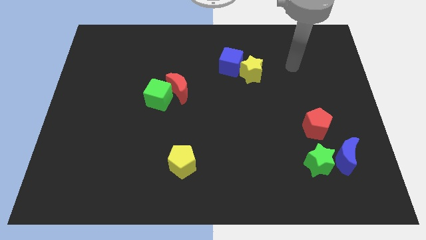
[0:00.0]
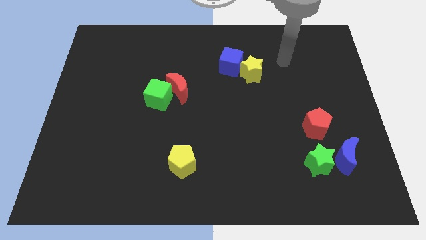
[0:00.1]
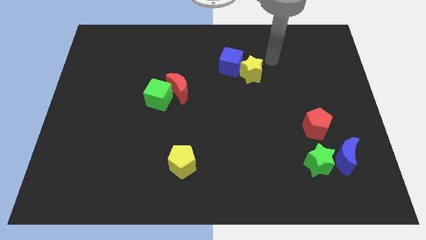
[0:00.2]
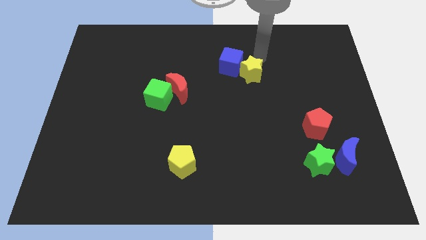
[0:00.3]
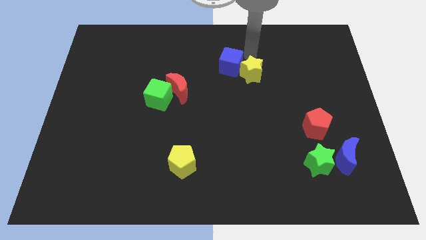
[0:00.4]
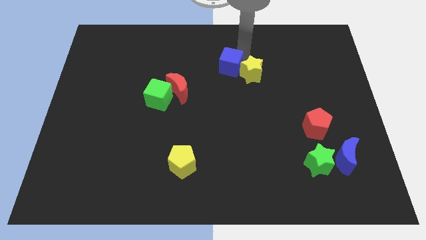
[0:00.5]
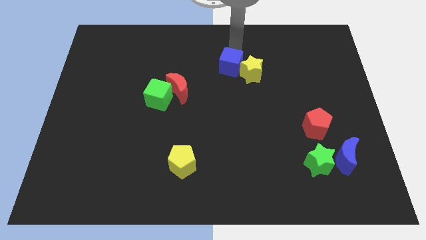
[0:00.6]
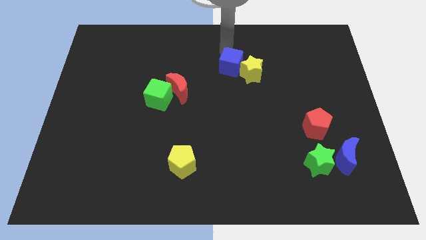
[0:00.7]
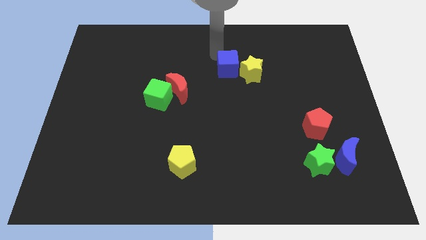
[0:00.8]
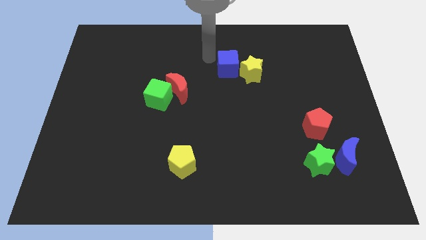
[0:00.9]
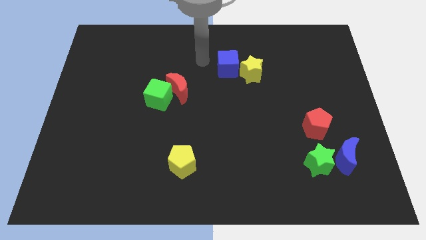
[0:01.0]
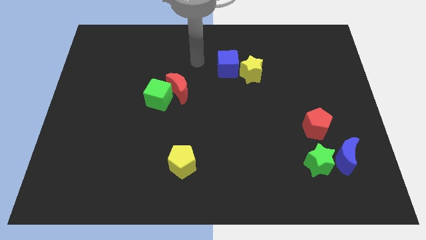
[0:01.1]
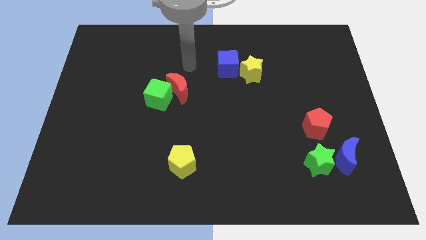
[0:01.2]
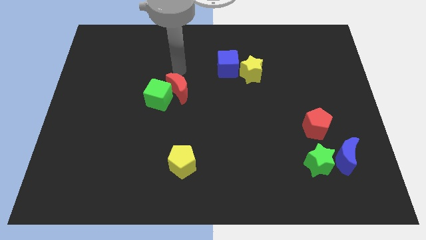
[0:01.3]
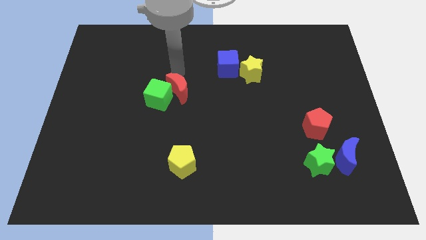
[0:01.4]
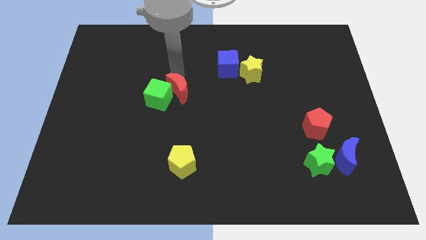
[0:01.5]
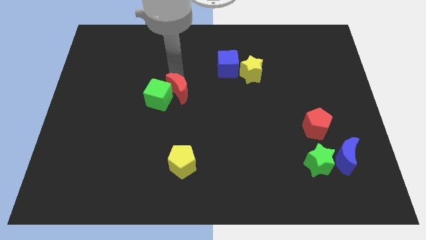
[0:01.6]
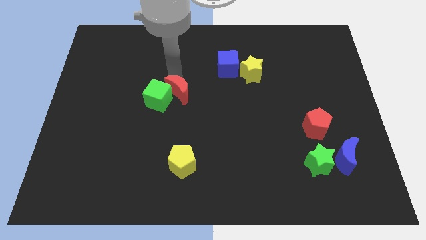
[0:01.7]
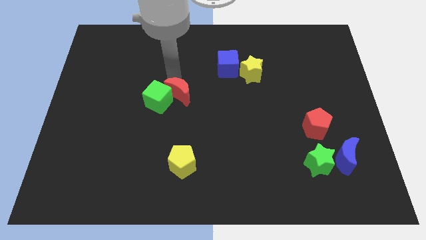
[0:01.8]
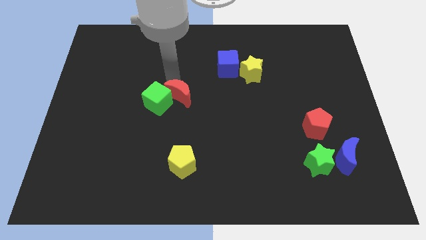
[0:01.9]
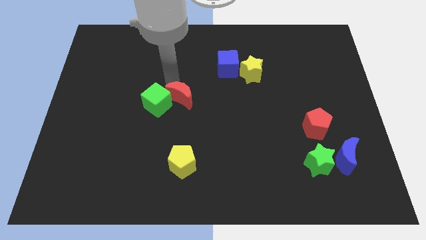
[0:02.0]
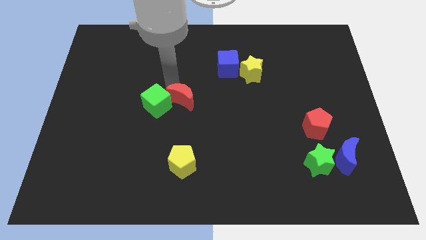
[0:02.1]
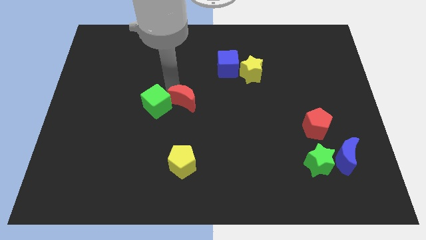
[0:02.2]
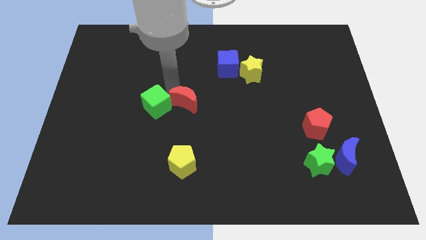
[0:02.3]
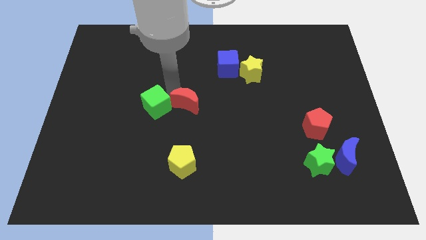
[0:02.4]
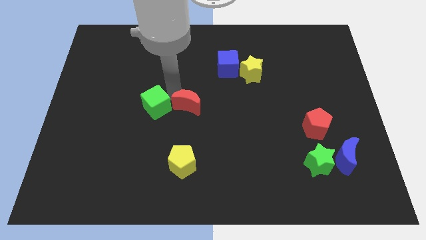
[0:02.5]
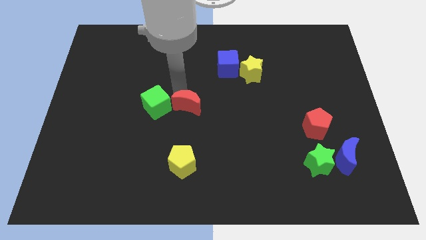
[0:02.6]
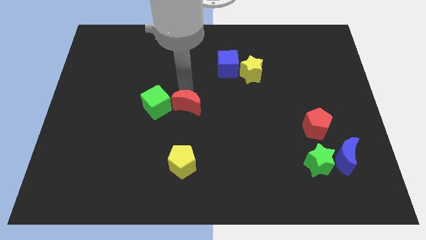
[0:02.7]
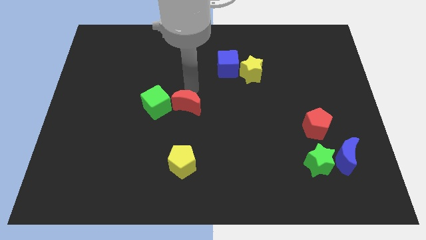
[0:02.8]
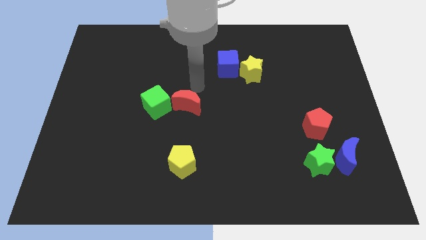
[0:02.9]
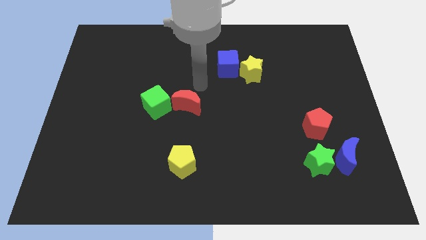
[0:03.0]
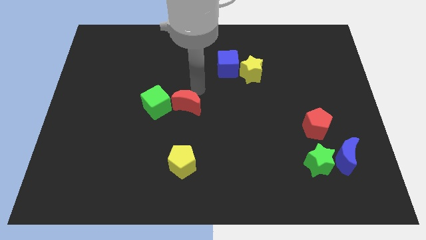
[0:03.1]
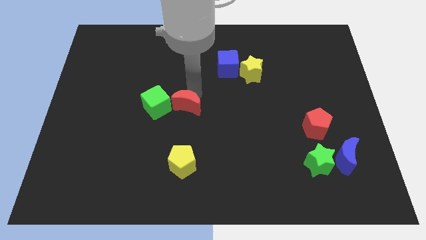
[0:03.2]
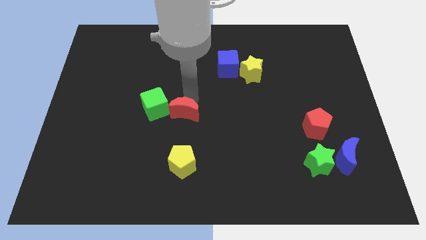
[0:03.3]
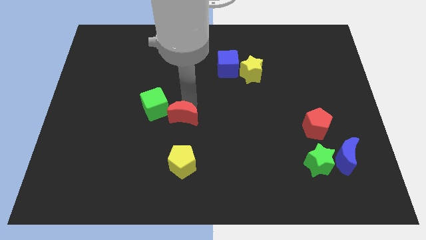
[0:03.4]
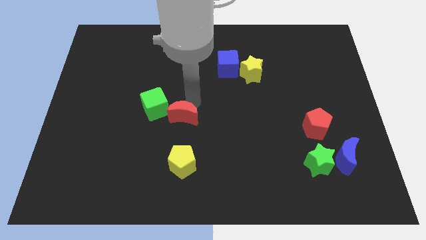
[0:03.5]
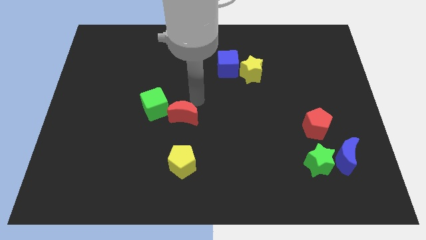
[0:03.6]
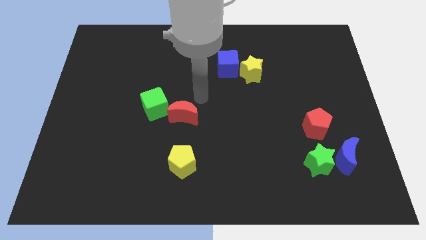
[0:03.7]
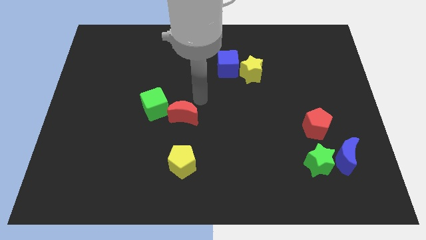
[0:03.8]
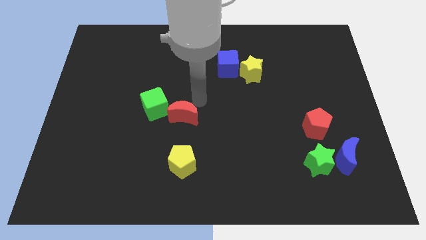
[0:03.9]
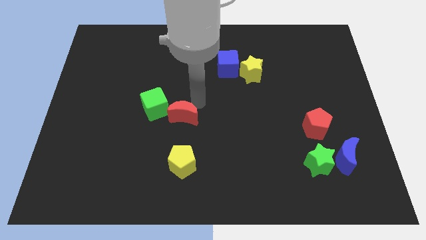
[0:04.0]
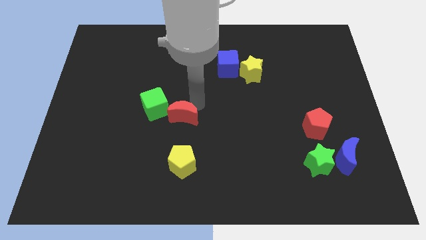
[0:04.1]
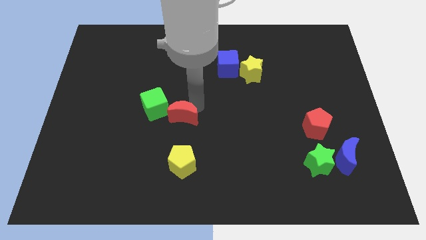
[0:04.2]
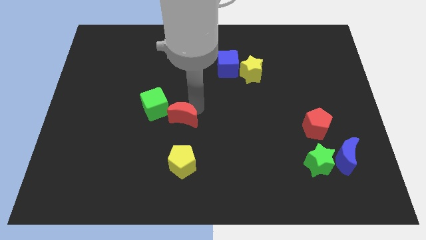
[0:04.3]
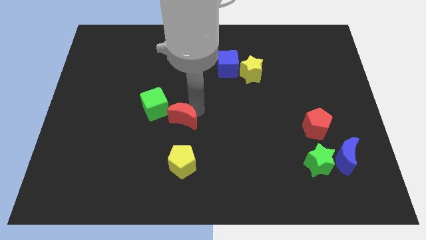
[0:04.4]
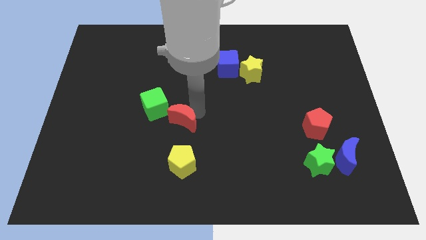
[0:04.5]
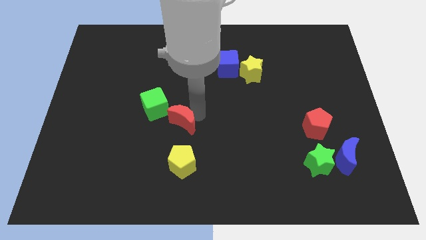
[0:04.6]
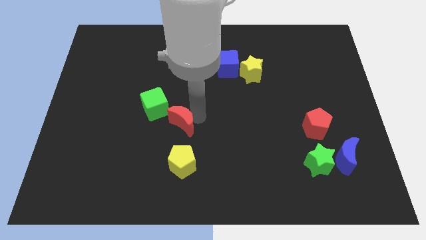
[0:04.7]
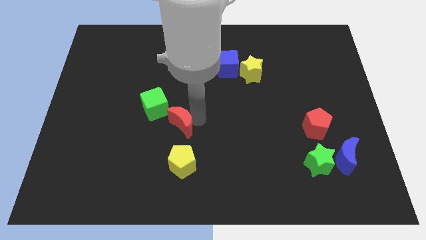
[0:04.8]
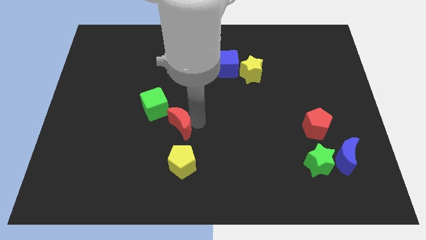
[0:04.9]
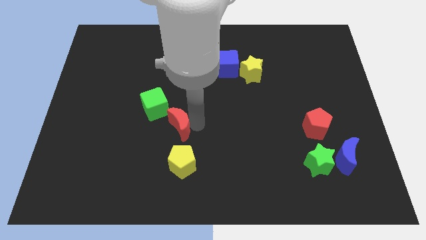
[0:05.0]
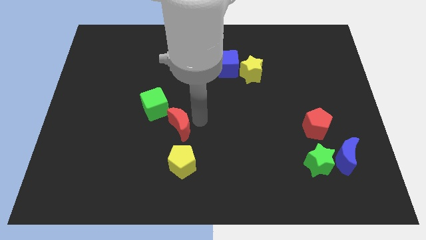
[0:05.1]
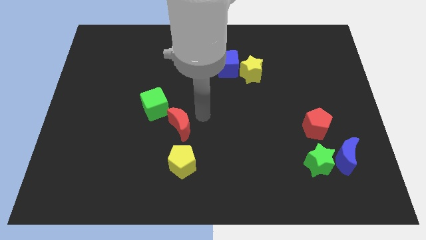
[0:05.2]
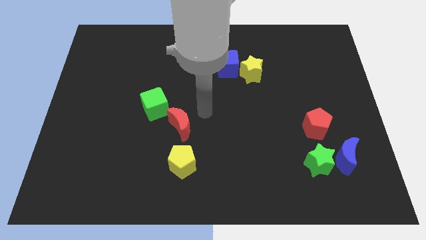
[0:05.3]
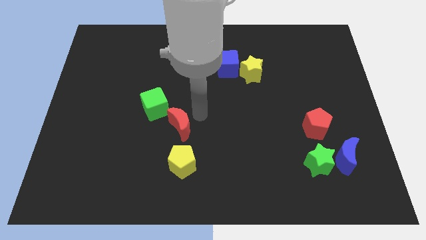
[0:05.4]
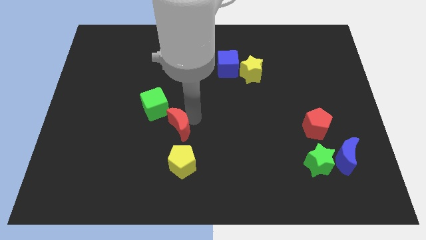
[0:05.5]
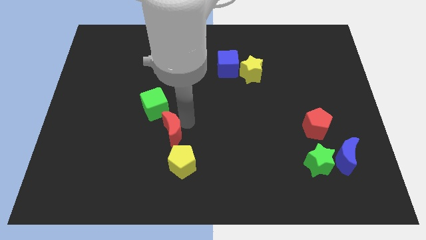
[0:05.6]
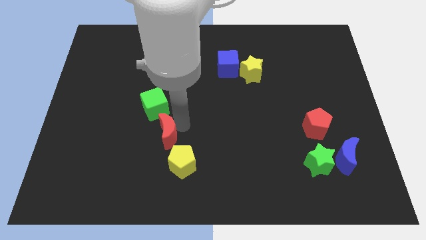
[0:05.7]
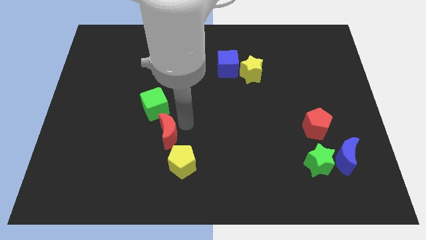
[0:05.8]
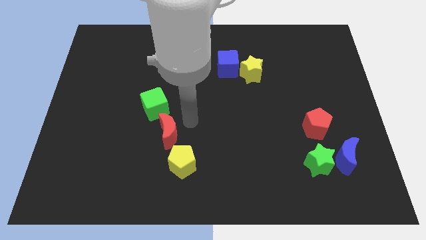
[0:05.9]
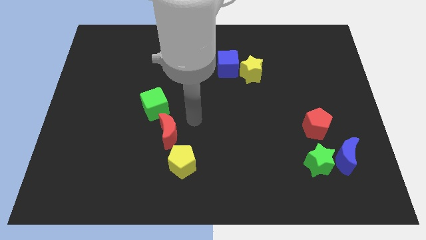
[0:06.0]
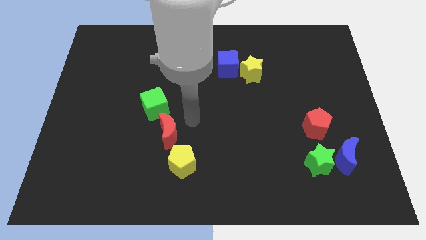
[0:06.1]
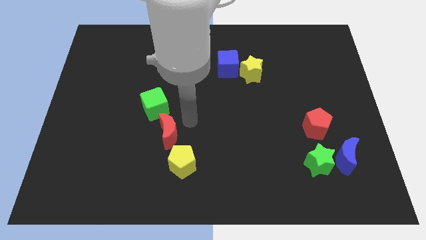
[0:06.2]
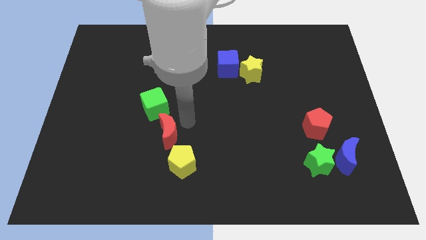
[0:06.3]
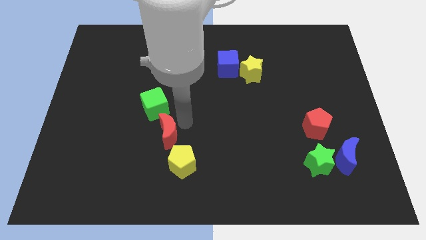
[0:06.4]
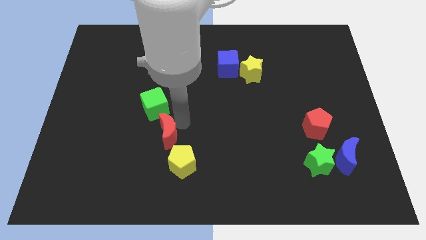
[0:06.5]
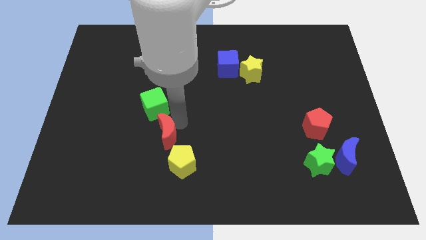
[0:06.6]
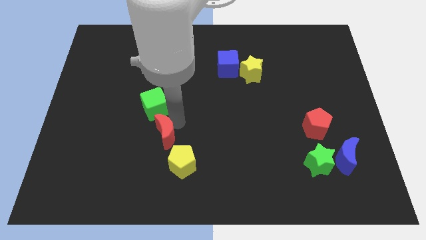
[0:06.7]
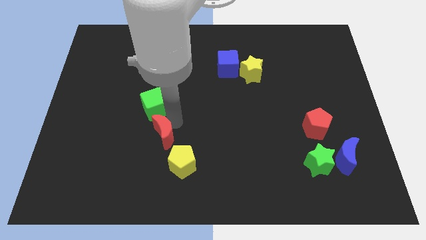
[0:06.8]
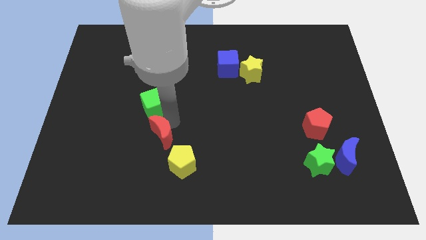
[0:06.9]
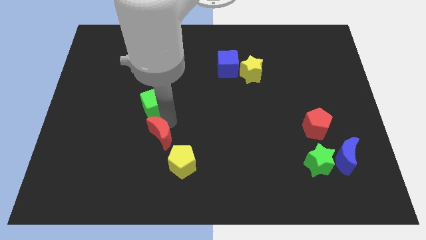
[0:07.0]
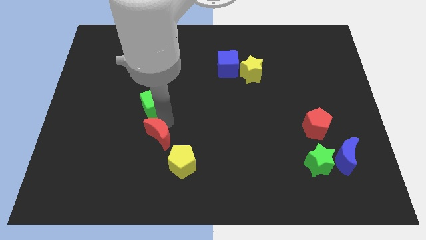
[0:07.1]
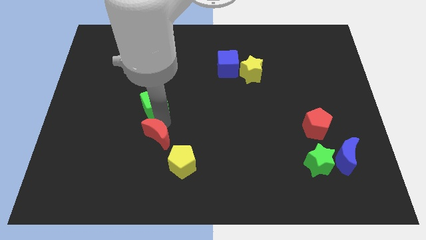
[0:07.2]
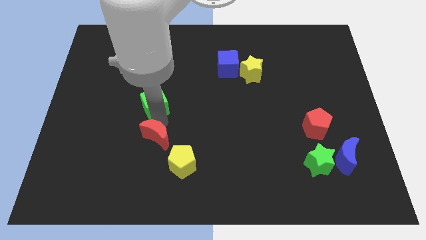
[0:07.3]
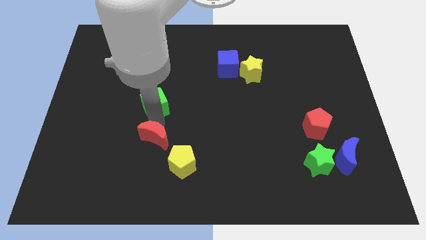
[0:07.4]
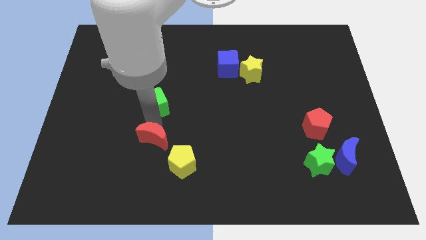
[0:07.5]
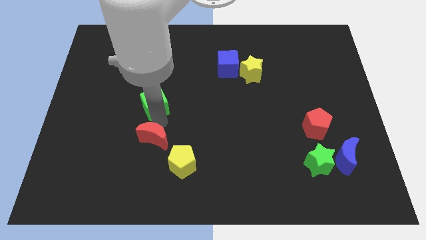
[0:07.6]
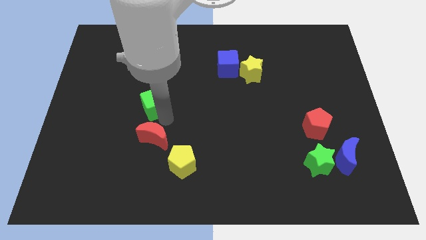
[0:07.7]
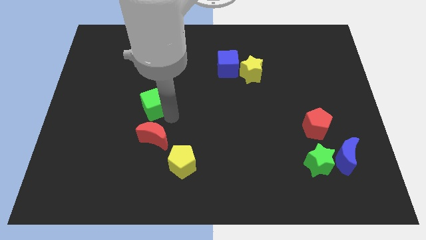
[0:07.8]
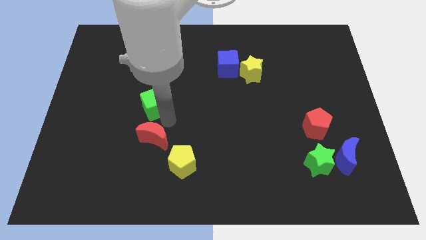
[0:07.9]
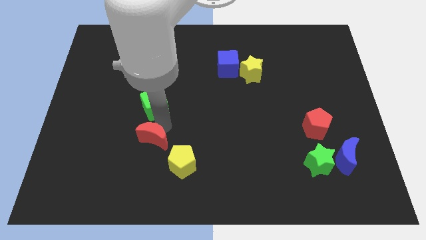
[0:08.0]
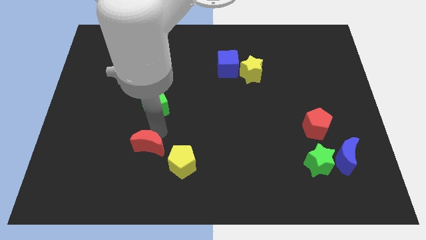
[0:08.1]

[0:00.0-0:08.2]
slide the red moon left of the yellow pentagon
